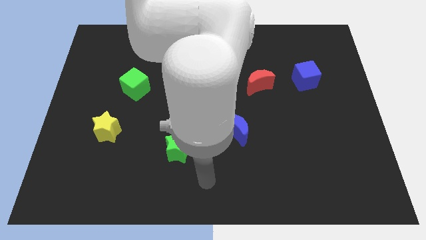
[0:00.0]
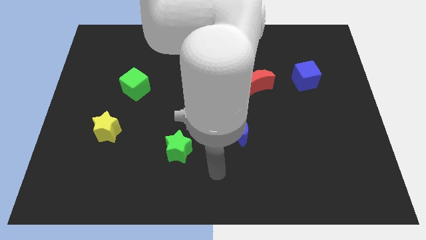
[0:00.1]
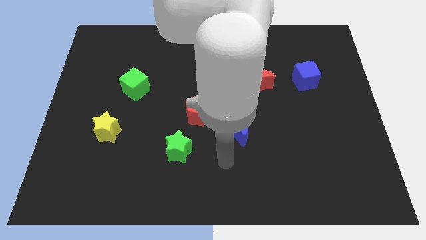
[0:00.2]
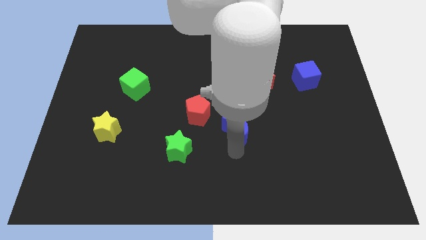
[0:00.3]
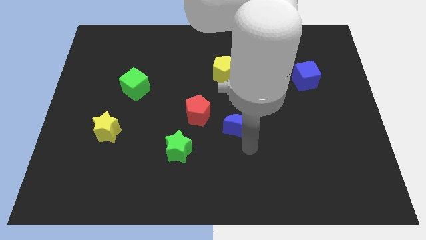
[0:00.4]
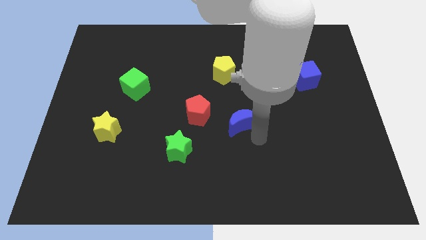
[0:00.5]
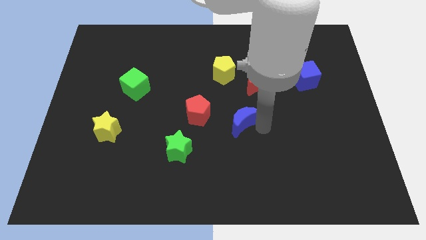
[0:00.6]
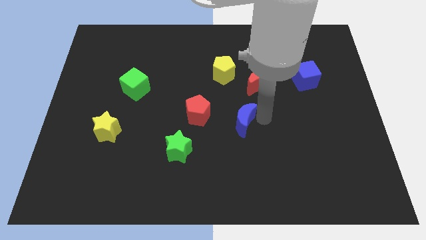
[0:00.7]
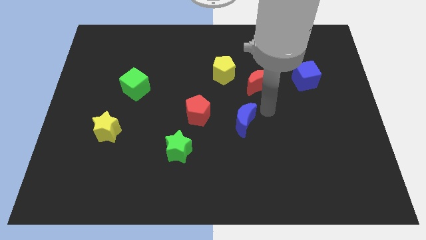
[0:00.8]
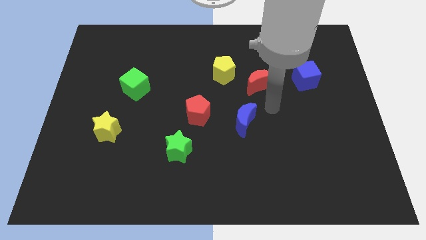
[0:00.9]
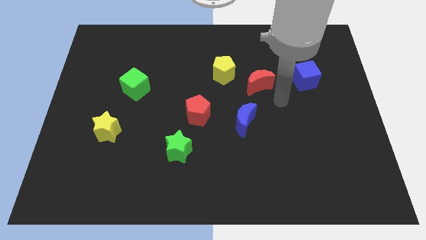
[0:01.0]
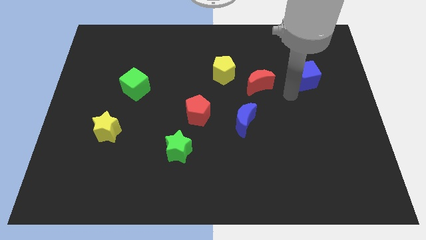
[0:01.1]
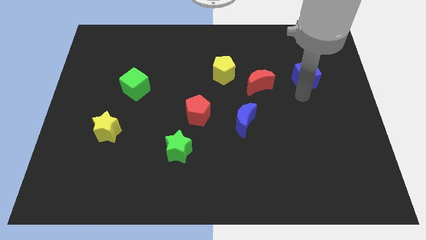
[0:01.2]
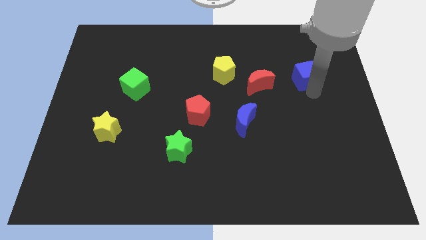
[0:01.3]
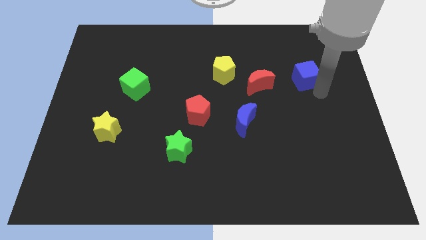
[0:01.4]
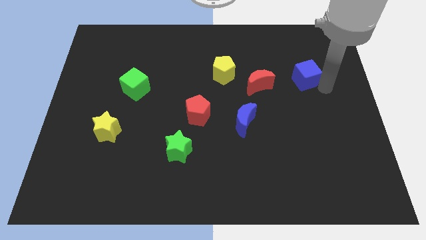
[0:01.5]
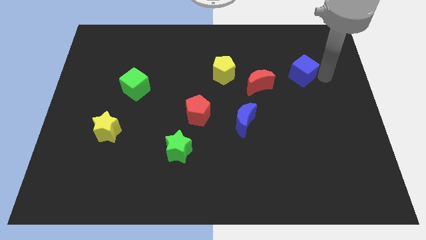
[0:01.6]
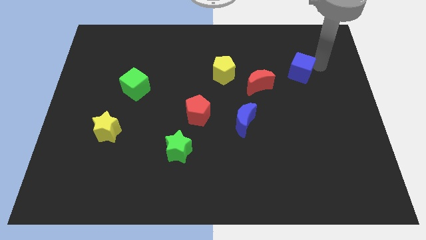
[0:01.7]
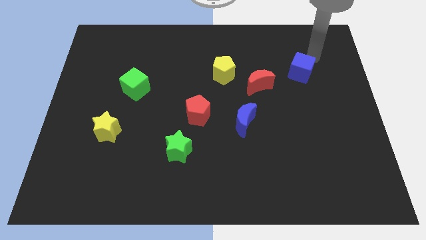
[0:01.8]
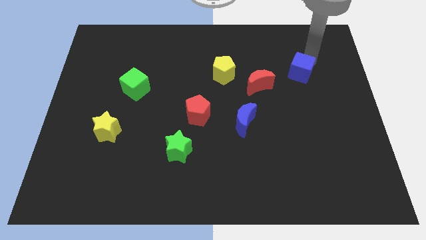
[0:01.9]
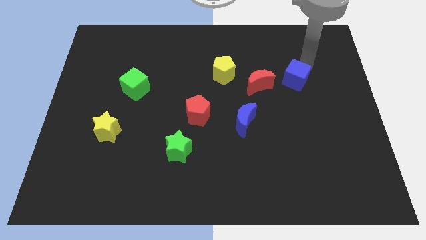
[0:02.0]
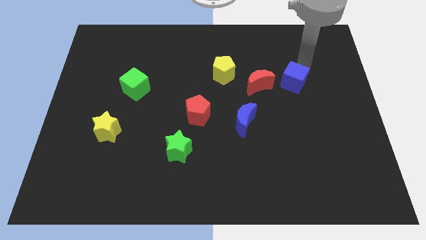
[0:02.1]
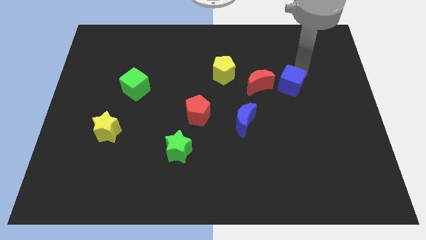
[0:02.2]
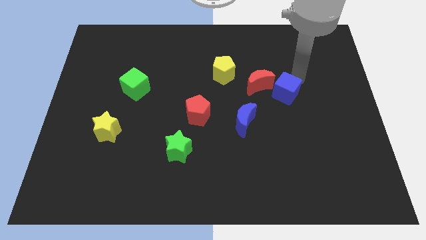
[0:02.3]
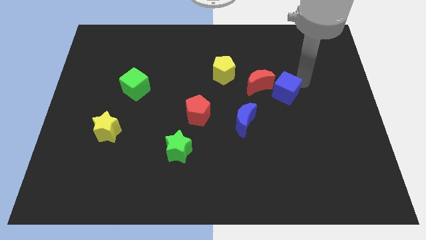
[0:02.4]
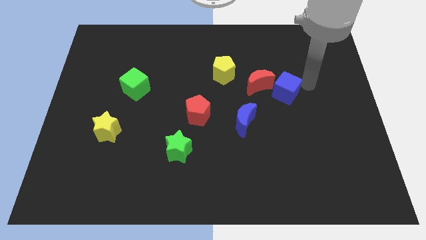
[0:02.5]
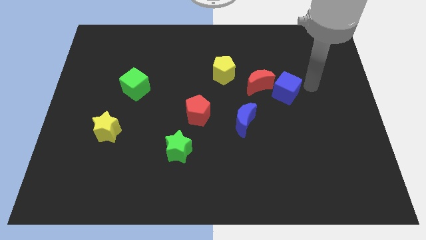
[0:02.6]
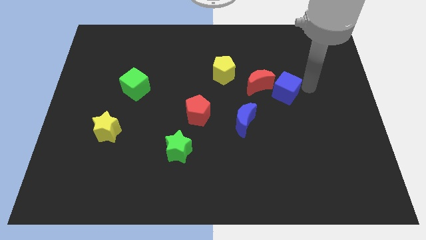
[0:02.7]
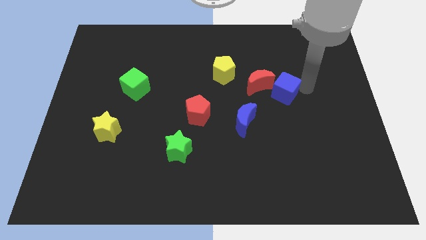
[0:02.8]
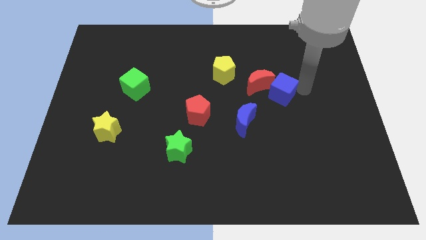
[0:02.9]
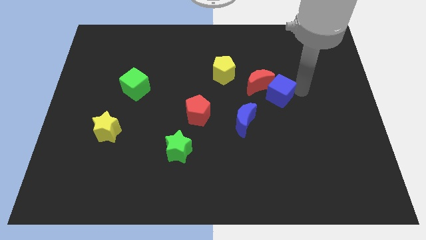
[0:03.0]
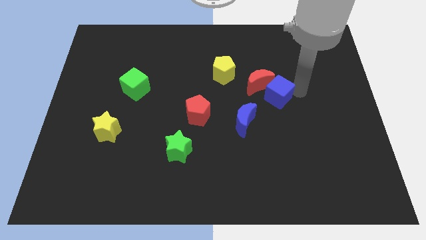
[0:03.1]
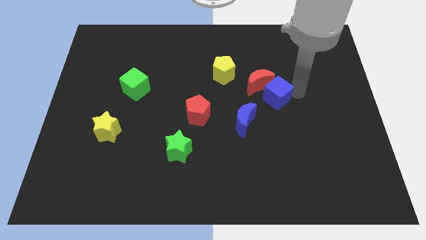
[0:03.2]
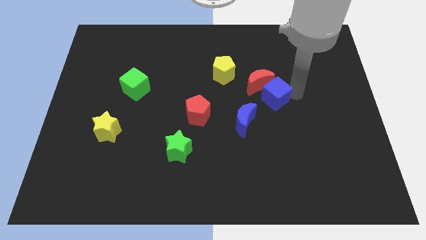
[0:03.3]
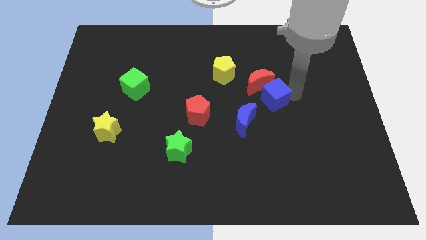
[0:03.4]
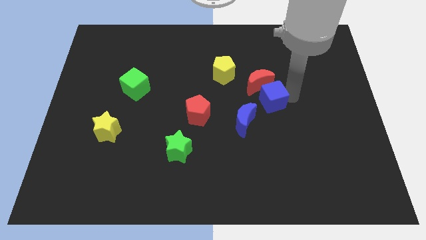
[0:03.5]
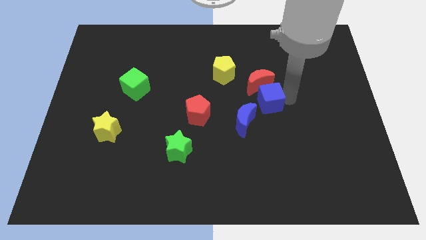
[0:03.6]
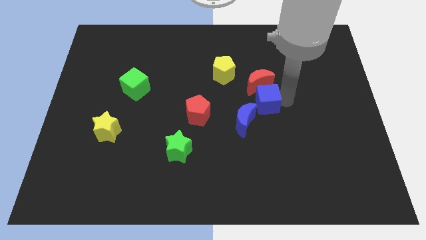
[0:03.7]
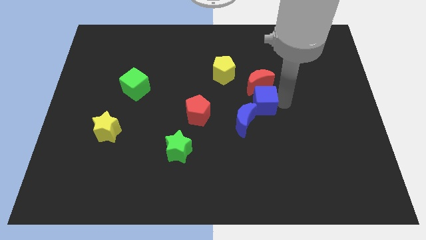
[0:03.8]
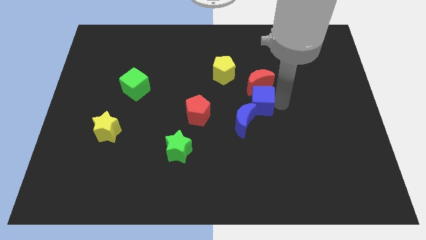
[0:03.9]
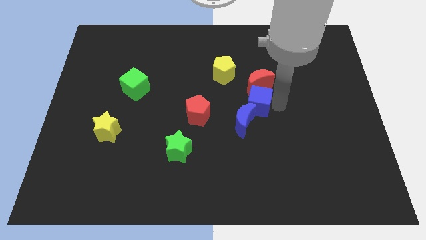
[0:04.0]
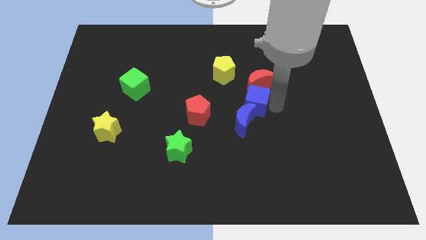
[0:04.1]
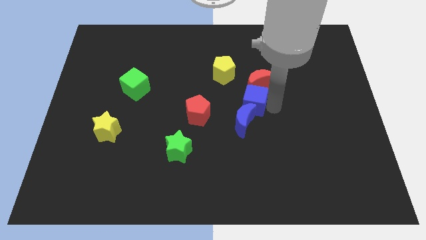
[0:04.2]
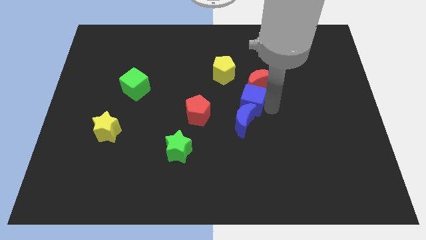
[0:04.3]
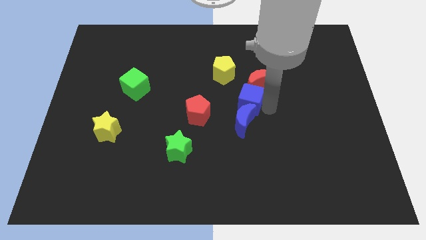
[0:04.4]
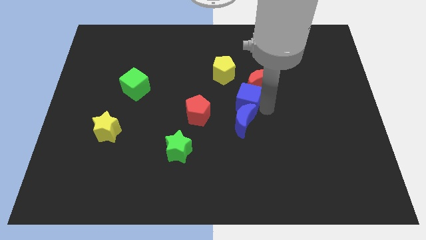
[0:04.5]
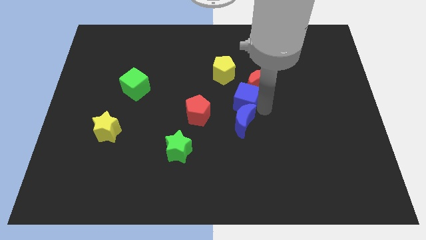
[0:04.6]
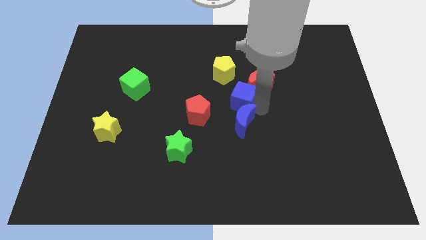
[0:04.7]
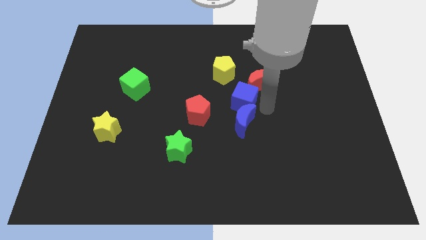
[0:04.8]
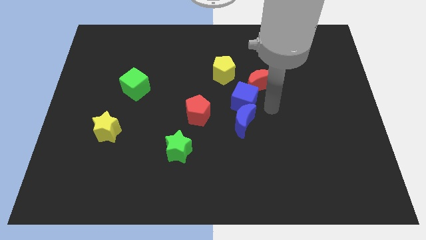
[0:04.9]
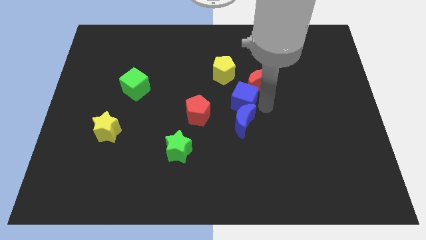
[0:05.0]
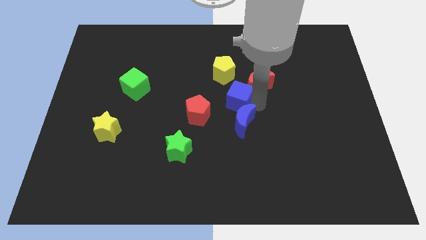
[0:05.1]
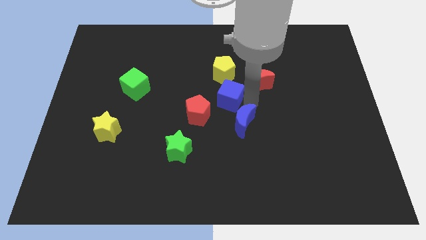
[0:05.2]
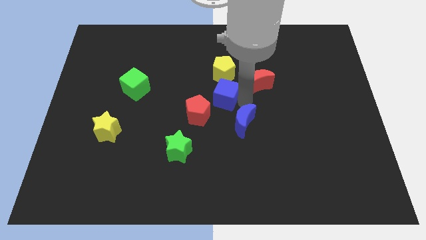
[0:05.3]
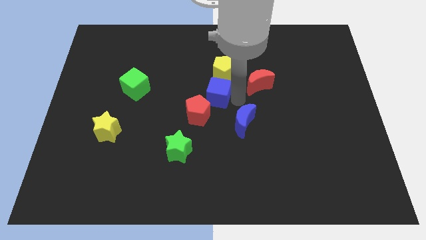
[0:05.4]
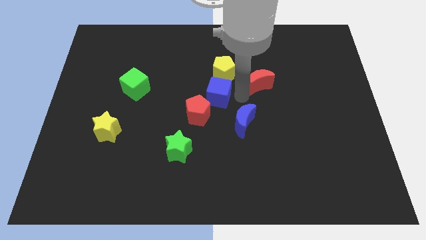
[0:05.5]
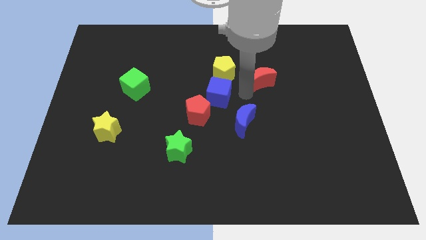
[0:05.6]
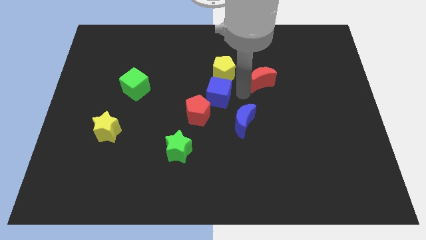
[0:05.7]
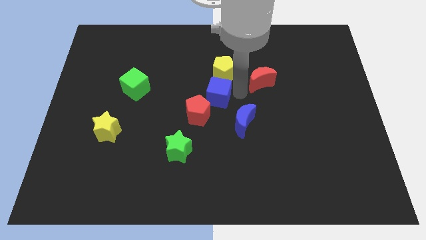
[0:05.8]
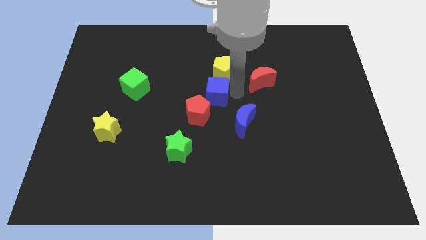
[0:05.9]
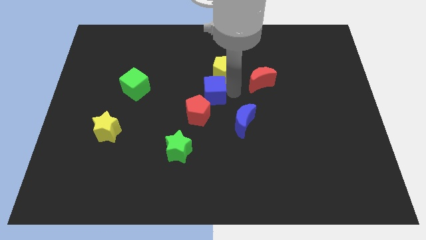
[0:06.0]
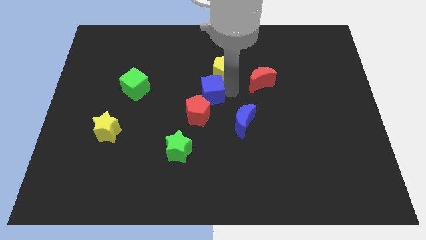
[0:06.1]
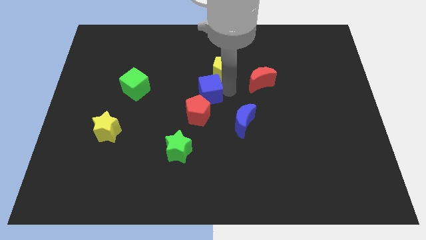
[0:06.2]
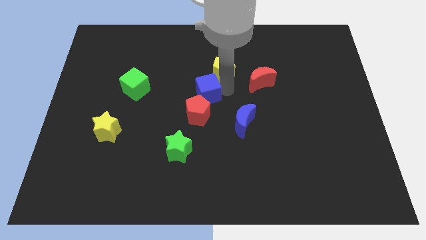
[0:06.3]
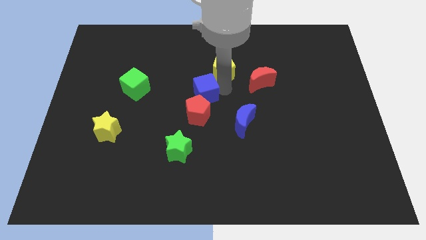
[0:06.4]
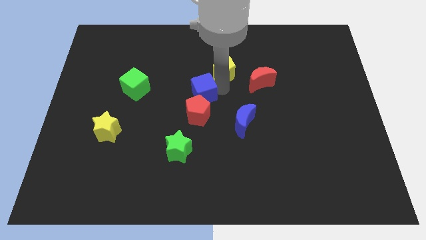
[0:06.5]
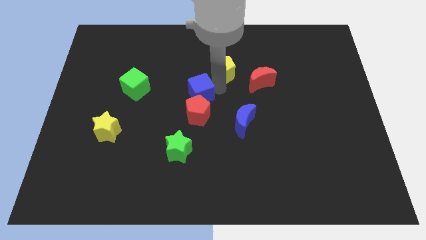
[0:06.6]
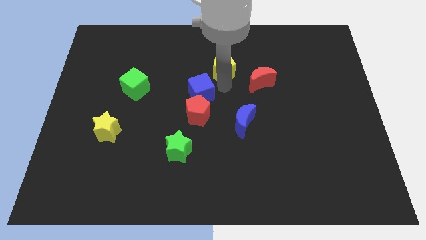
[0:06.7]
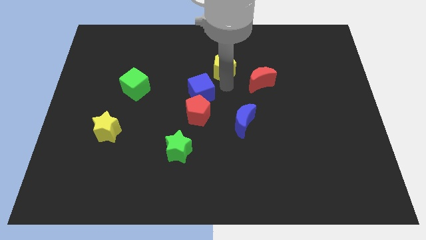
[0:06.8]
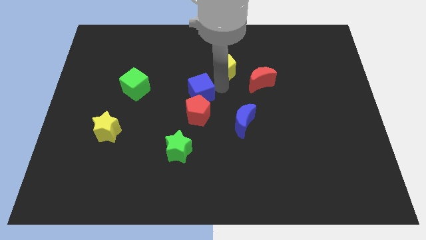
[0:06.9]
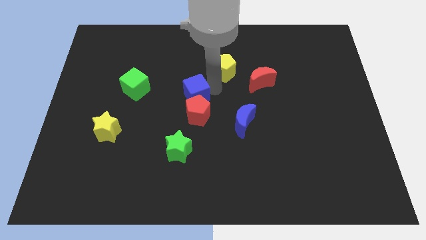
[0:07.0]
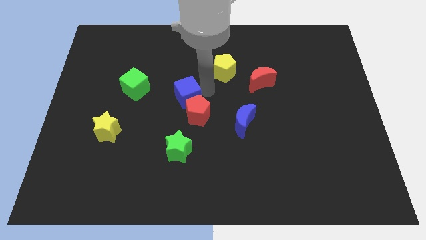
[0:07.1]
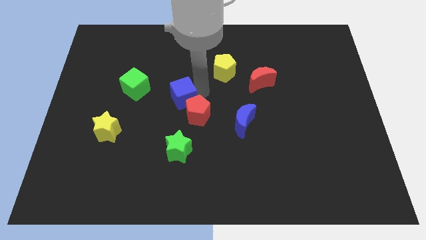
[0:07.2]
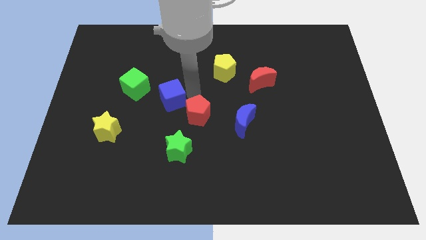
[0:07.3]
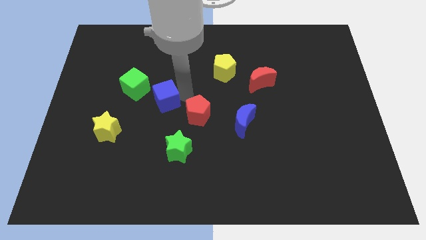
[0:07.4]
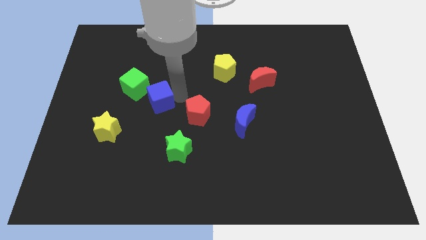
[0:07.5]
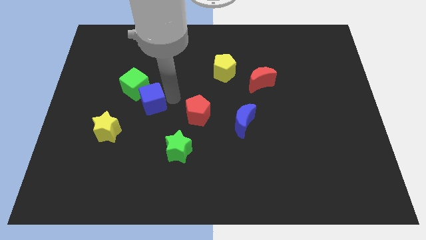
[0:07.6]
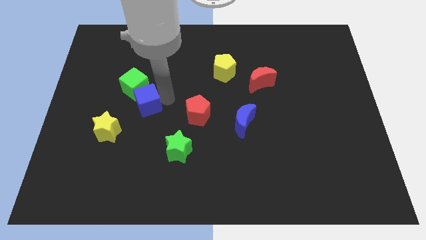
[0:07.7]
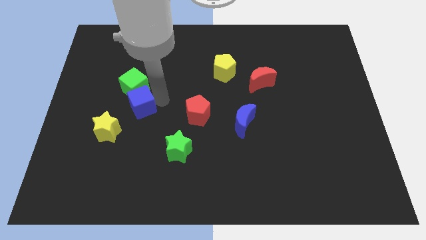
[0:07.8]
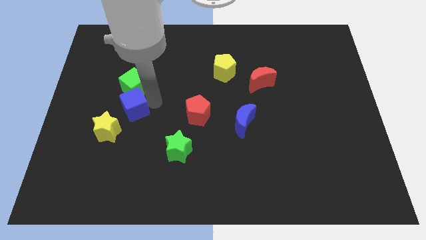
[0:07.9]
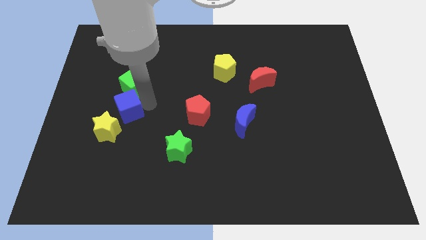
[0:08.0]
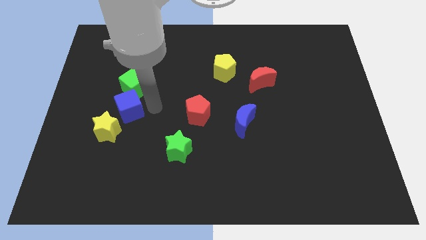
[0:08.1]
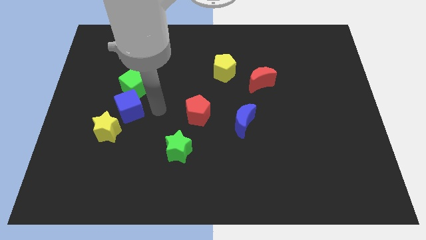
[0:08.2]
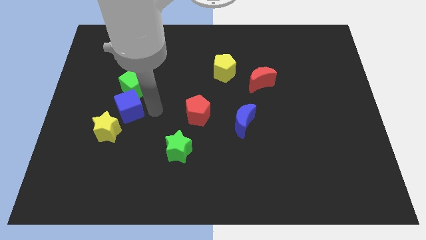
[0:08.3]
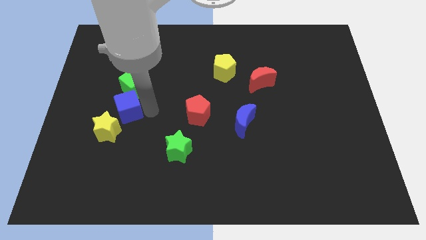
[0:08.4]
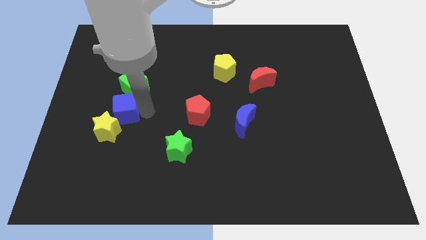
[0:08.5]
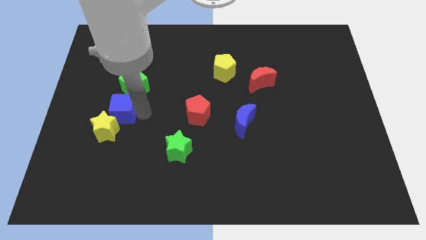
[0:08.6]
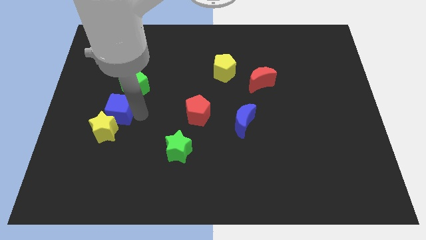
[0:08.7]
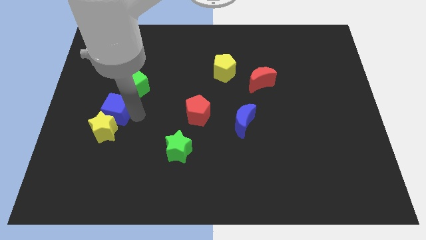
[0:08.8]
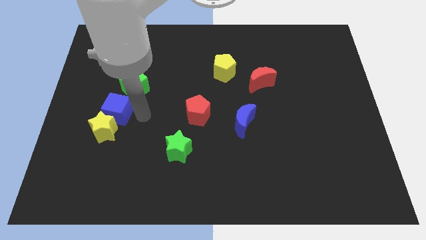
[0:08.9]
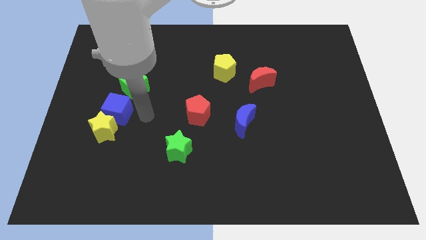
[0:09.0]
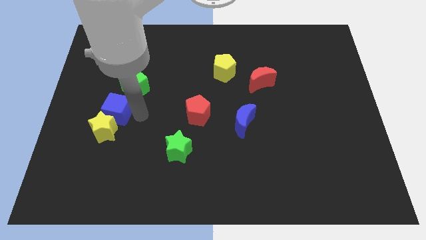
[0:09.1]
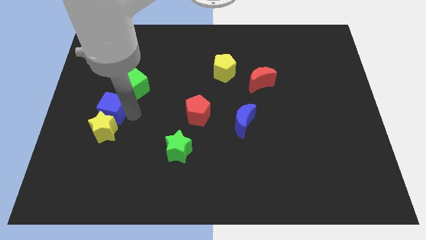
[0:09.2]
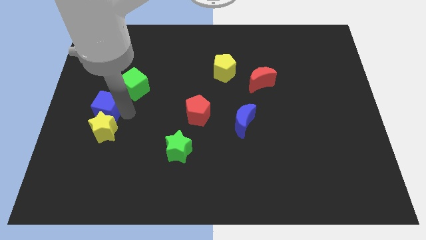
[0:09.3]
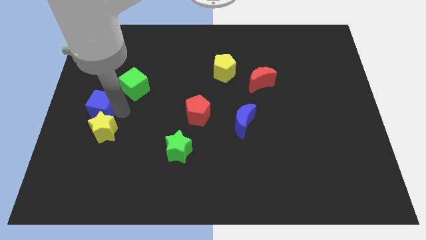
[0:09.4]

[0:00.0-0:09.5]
put the blue cube to the center left
